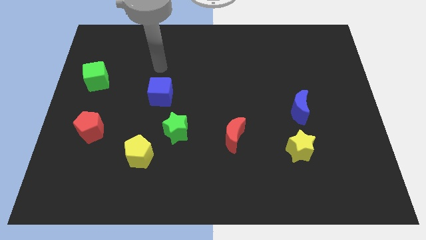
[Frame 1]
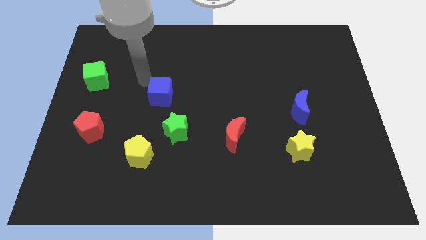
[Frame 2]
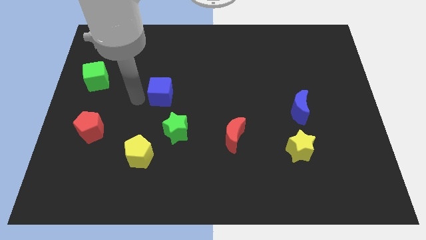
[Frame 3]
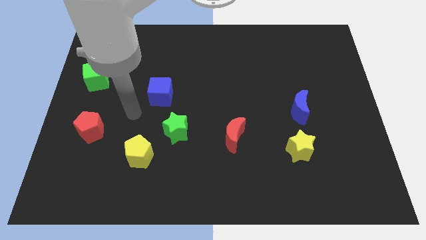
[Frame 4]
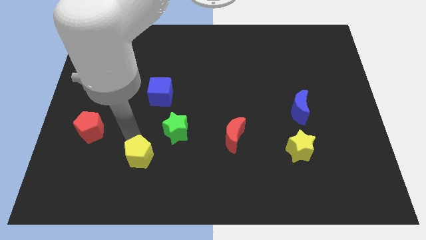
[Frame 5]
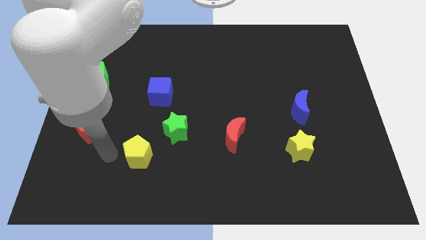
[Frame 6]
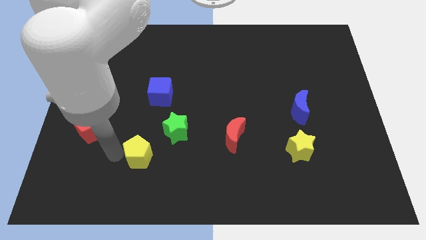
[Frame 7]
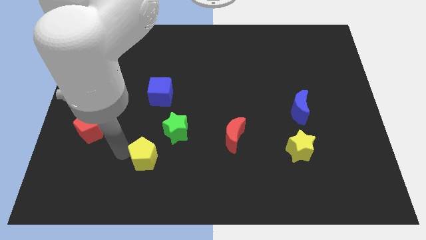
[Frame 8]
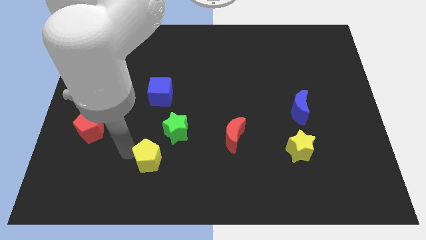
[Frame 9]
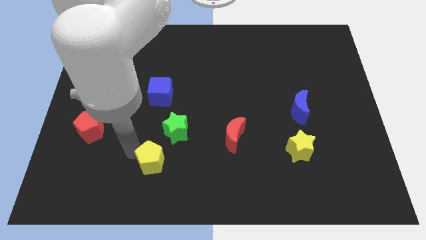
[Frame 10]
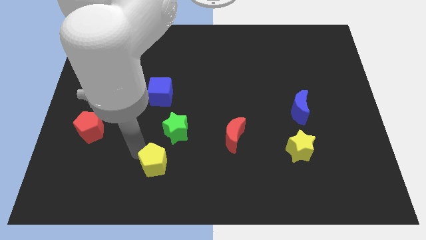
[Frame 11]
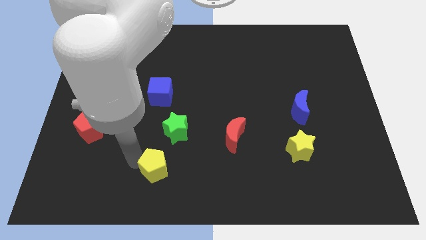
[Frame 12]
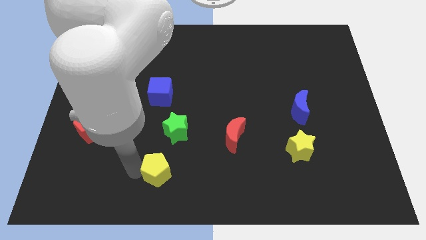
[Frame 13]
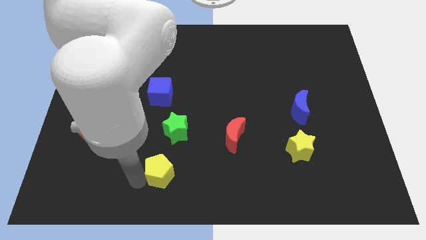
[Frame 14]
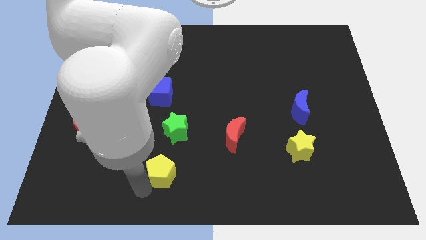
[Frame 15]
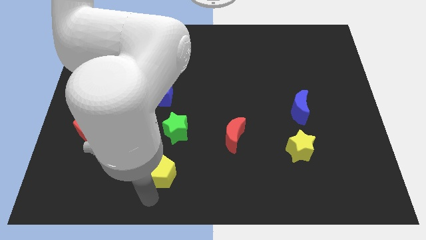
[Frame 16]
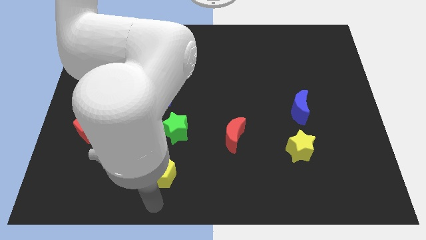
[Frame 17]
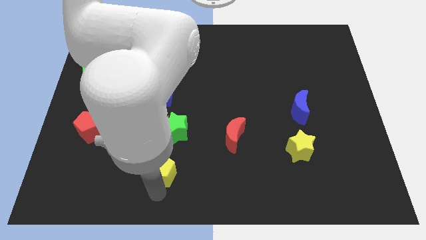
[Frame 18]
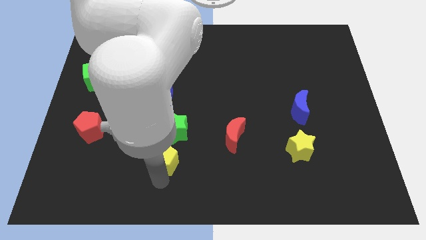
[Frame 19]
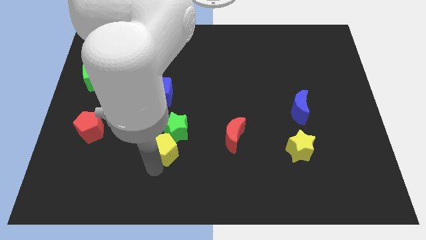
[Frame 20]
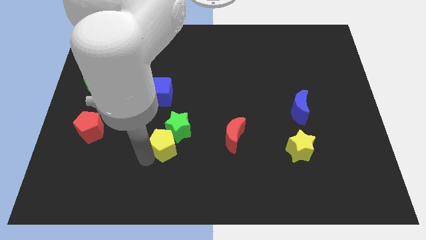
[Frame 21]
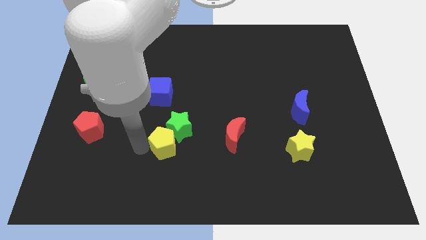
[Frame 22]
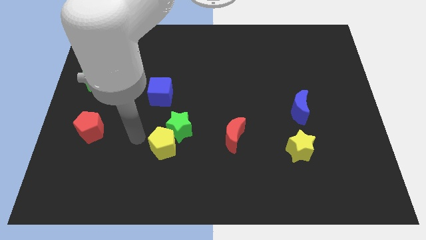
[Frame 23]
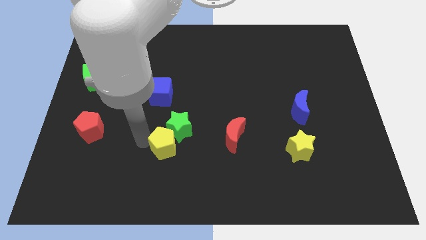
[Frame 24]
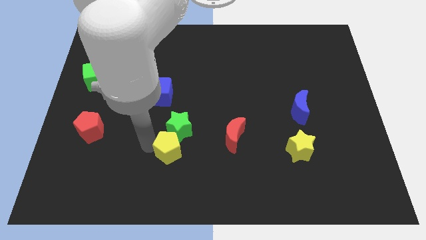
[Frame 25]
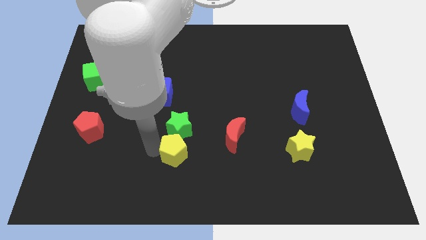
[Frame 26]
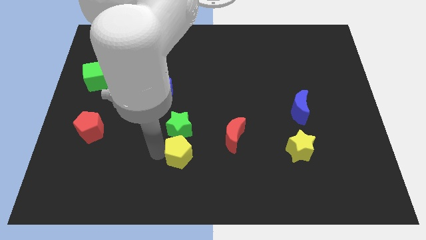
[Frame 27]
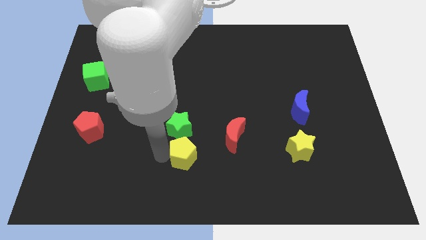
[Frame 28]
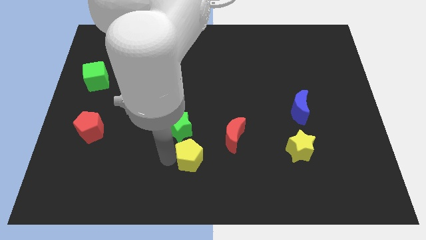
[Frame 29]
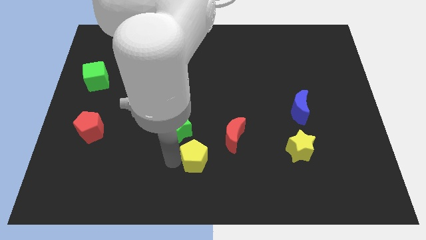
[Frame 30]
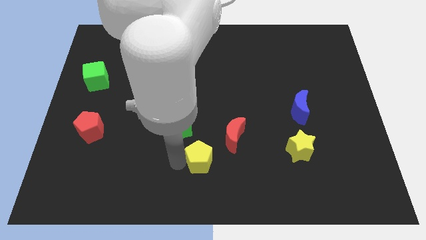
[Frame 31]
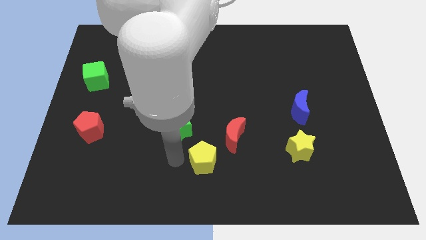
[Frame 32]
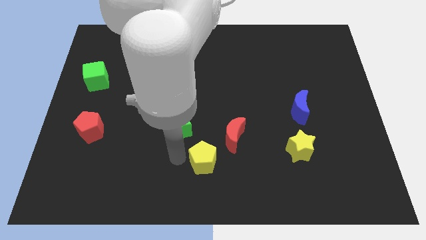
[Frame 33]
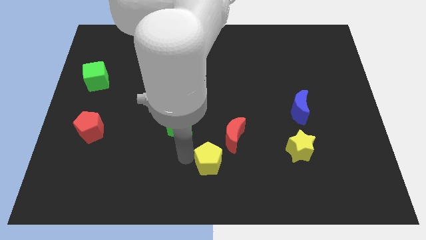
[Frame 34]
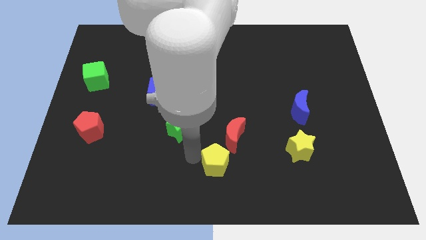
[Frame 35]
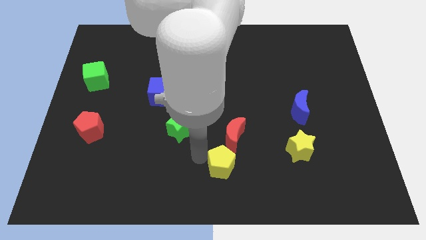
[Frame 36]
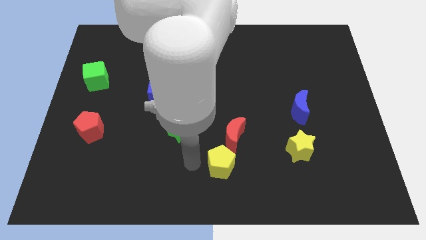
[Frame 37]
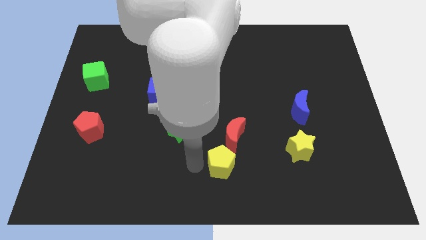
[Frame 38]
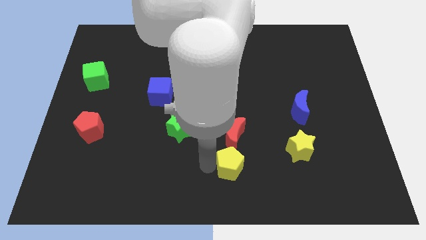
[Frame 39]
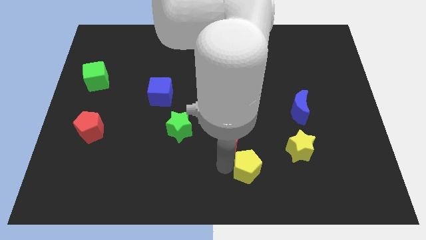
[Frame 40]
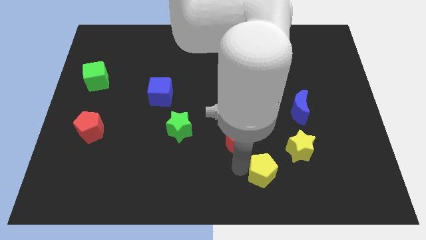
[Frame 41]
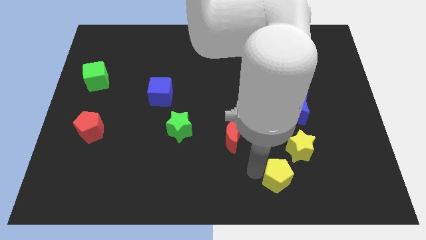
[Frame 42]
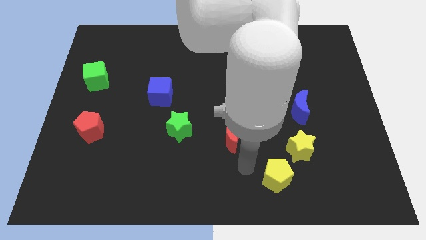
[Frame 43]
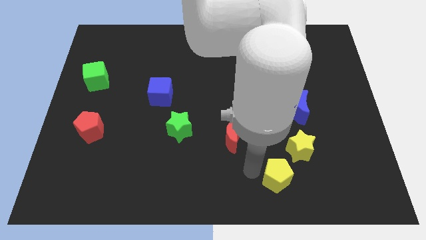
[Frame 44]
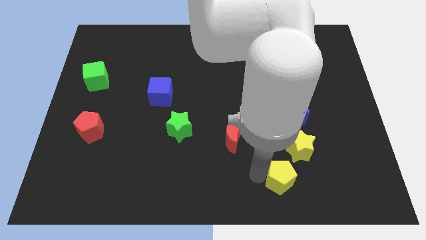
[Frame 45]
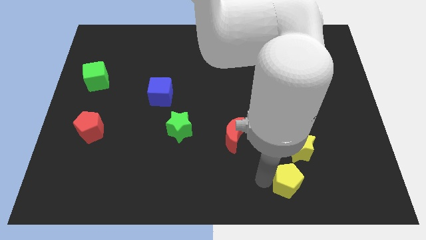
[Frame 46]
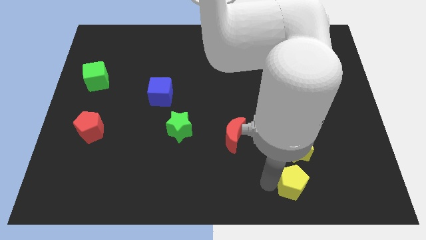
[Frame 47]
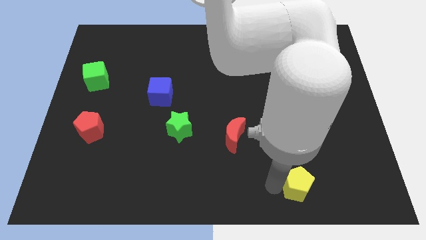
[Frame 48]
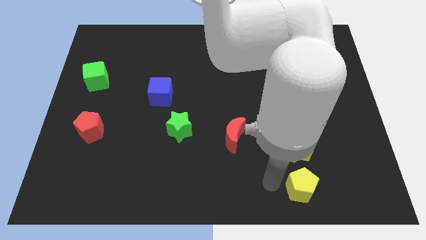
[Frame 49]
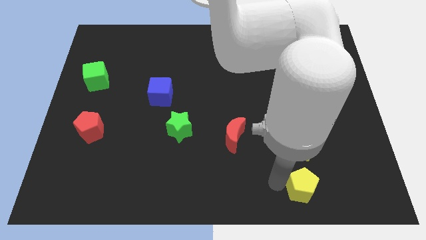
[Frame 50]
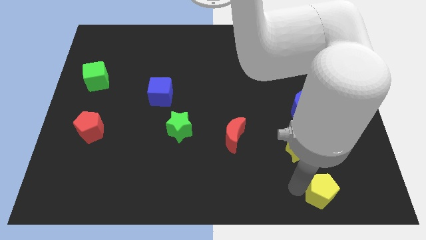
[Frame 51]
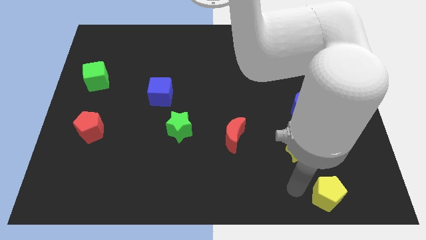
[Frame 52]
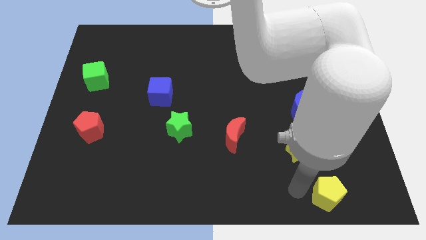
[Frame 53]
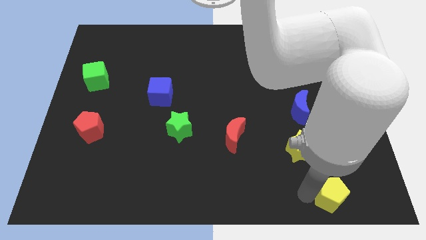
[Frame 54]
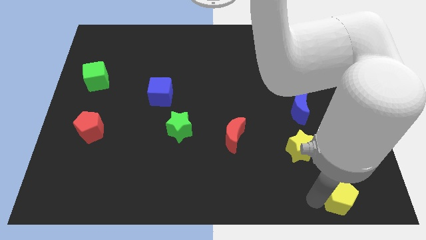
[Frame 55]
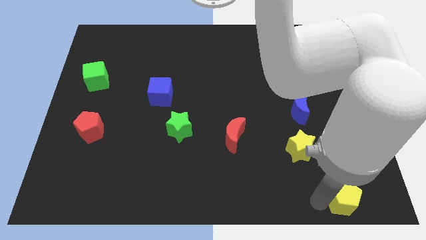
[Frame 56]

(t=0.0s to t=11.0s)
move the yellow pentagon to the bottom right of the board

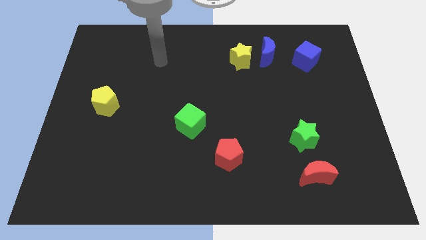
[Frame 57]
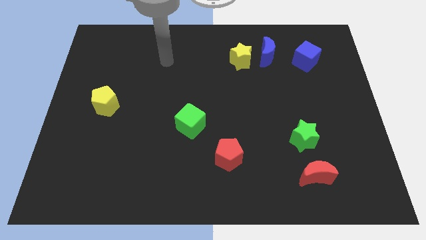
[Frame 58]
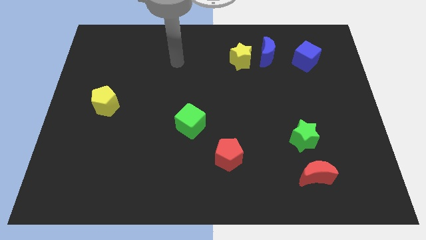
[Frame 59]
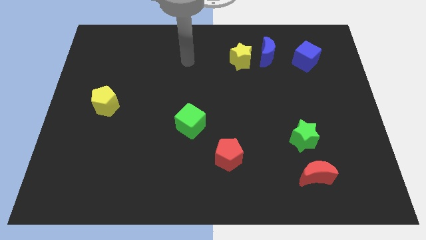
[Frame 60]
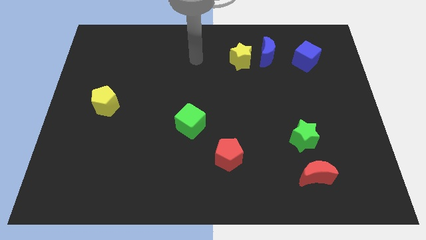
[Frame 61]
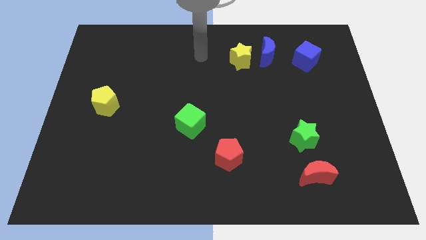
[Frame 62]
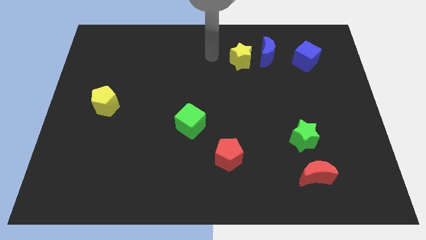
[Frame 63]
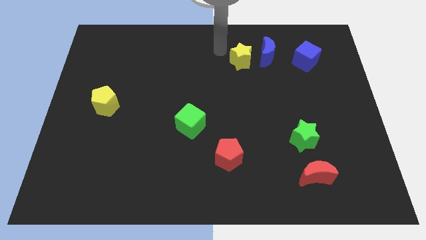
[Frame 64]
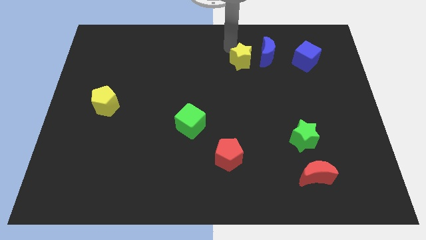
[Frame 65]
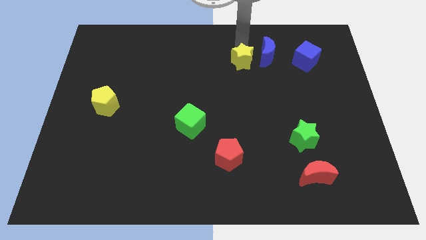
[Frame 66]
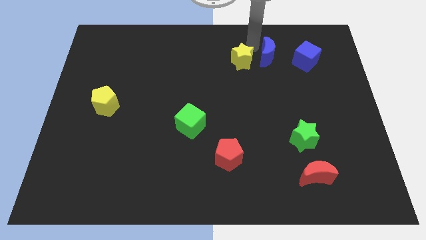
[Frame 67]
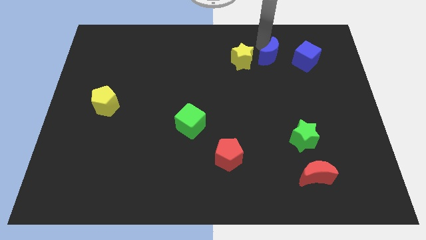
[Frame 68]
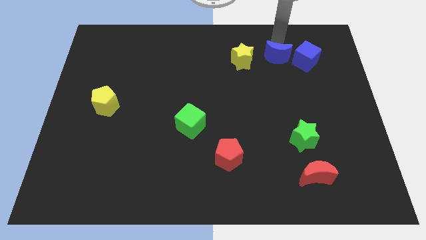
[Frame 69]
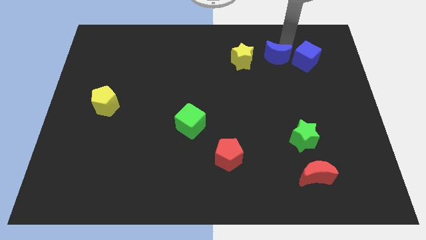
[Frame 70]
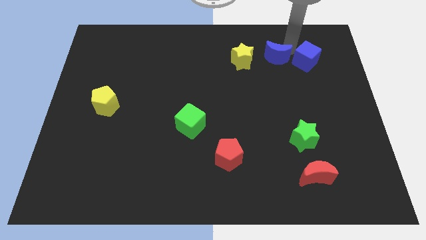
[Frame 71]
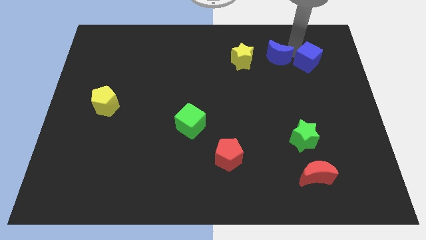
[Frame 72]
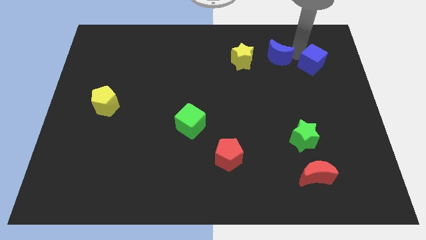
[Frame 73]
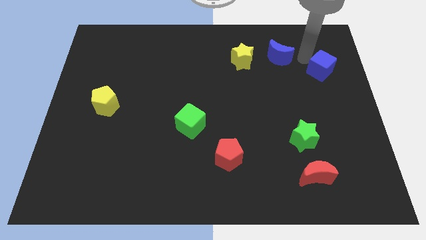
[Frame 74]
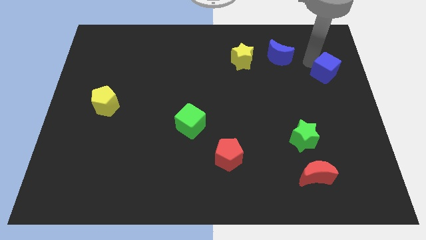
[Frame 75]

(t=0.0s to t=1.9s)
slide the blue cube to the right side
